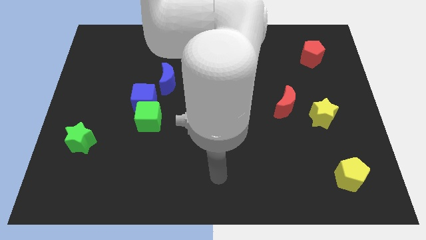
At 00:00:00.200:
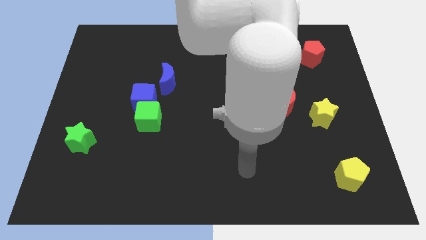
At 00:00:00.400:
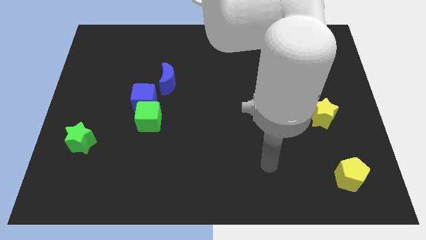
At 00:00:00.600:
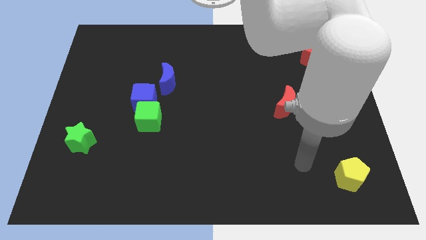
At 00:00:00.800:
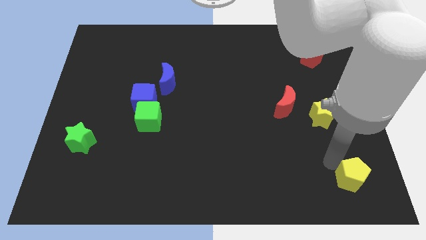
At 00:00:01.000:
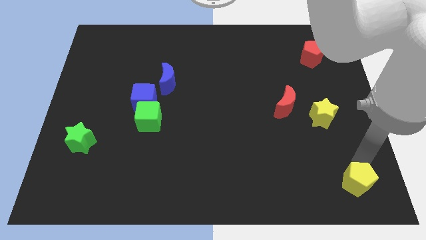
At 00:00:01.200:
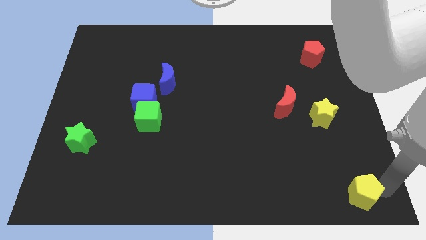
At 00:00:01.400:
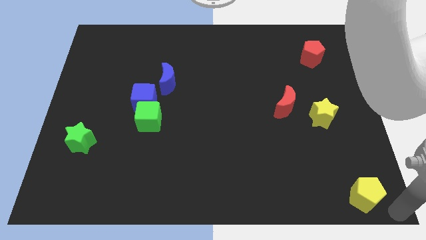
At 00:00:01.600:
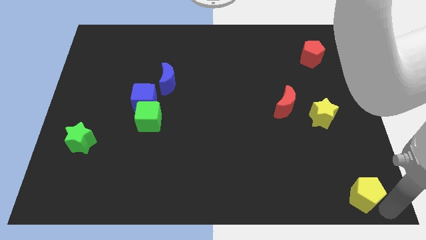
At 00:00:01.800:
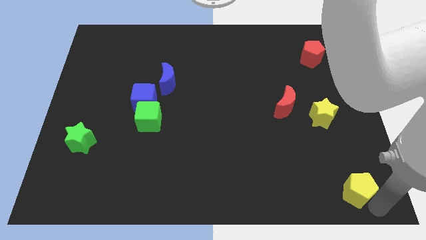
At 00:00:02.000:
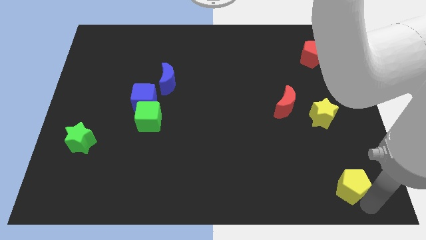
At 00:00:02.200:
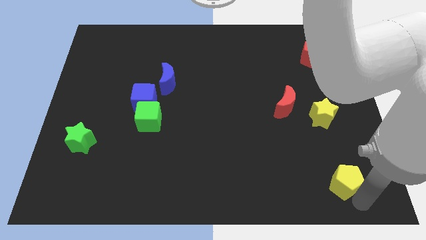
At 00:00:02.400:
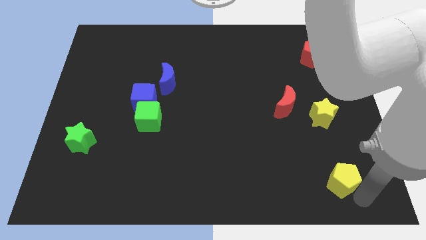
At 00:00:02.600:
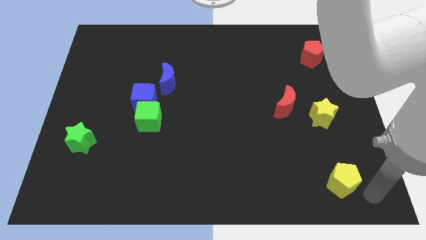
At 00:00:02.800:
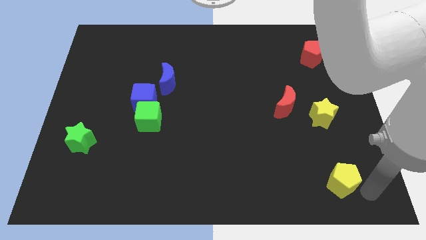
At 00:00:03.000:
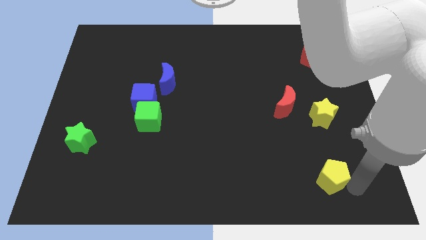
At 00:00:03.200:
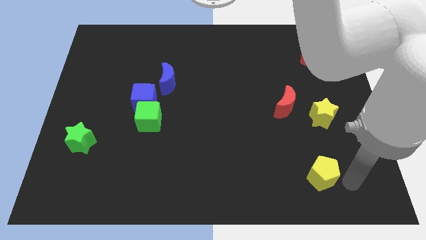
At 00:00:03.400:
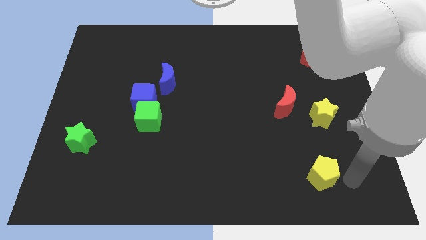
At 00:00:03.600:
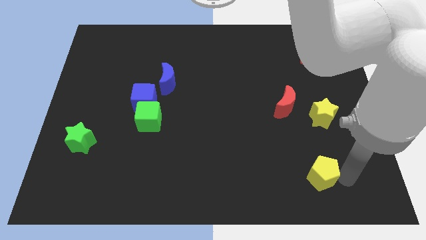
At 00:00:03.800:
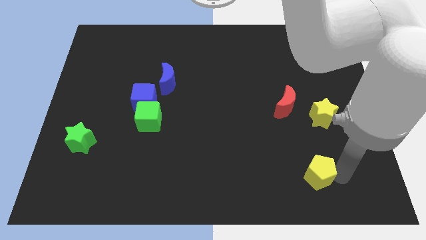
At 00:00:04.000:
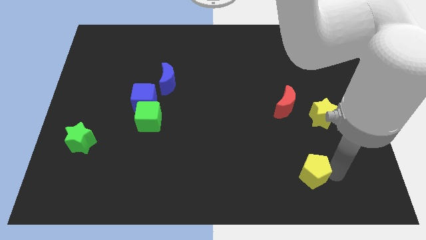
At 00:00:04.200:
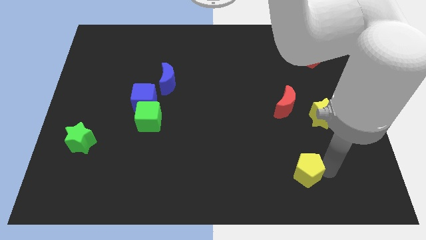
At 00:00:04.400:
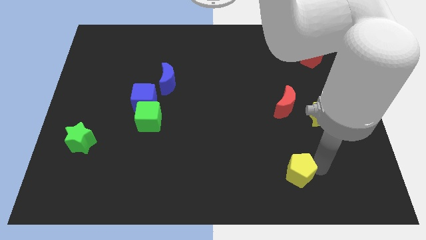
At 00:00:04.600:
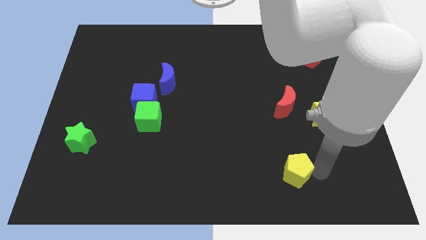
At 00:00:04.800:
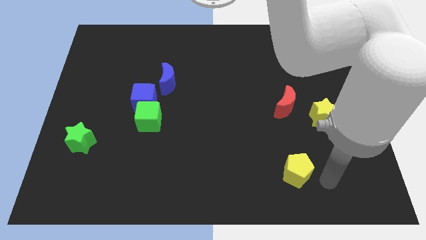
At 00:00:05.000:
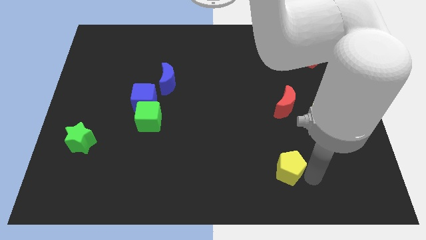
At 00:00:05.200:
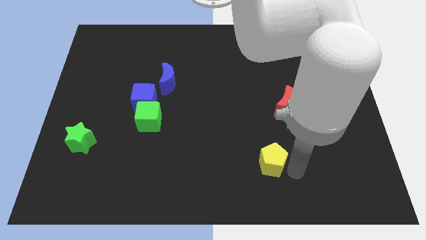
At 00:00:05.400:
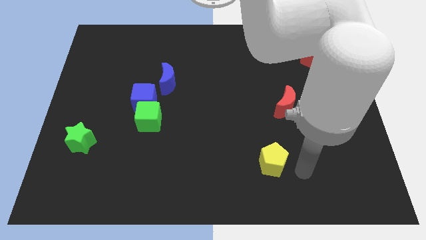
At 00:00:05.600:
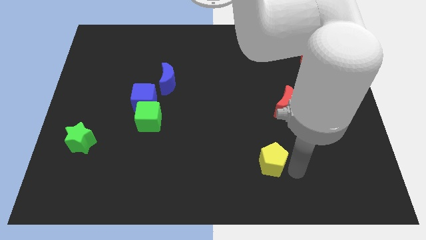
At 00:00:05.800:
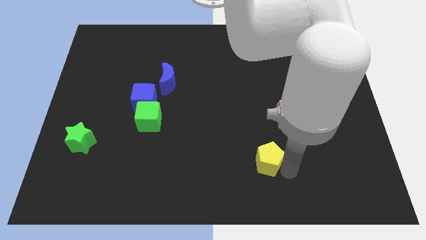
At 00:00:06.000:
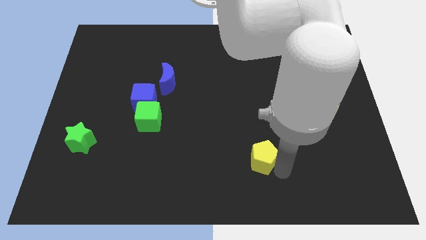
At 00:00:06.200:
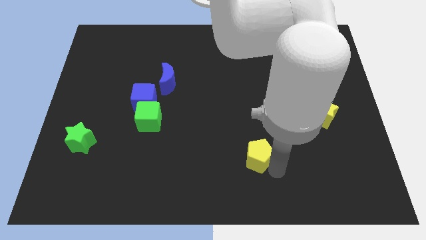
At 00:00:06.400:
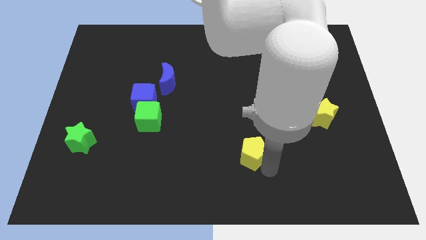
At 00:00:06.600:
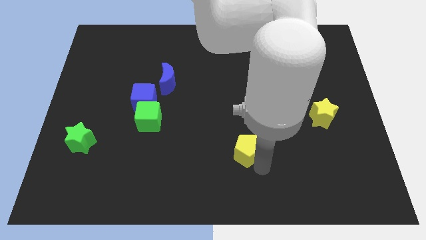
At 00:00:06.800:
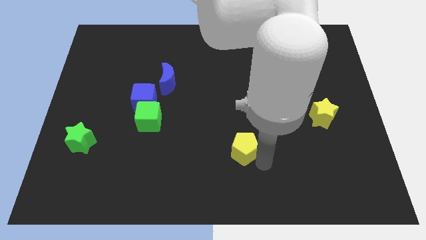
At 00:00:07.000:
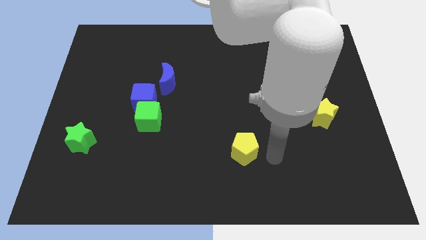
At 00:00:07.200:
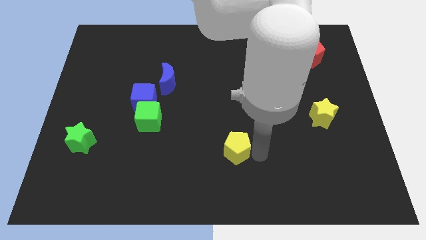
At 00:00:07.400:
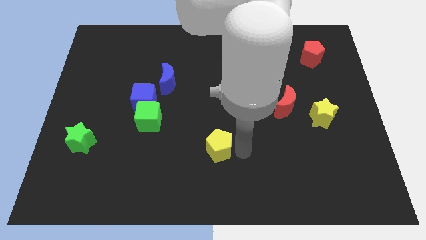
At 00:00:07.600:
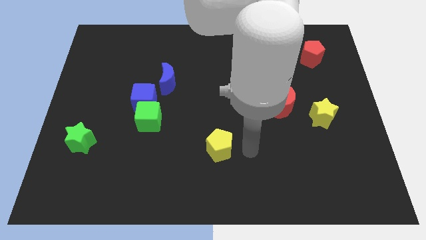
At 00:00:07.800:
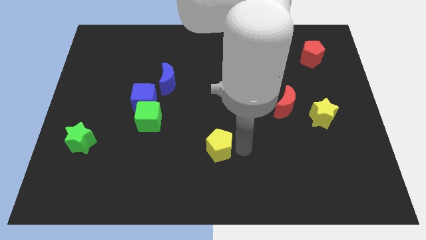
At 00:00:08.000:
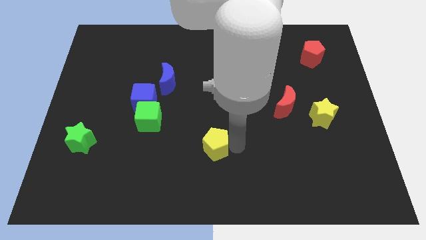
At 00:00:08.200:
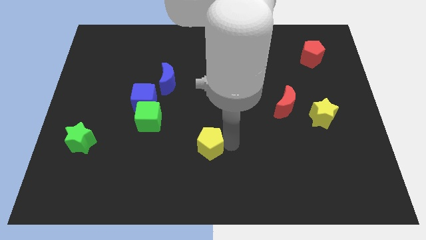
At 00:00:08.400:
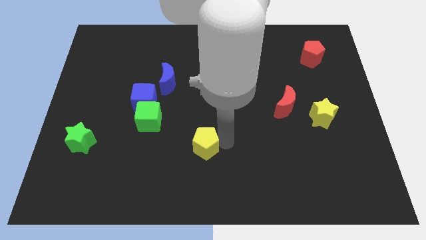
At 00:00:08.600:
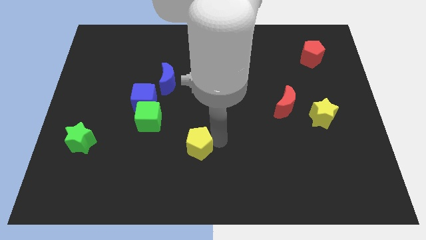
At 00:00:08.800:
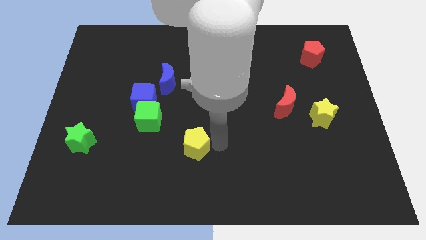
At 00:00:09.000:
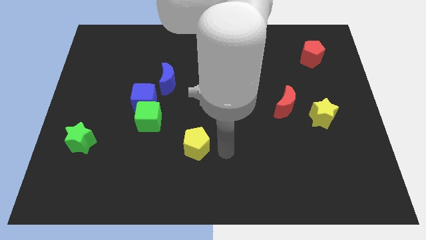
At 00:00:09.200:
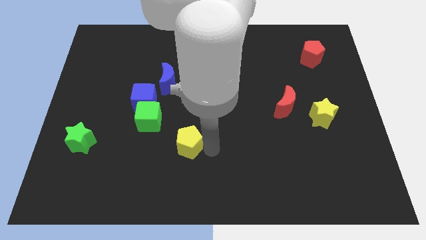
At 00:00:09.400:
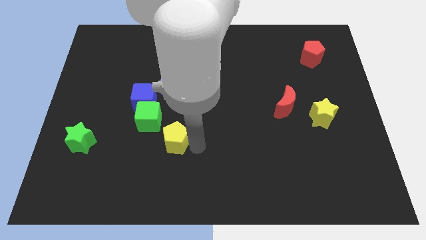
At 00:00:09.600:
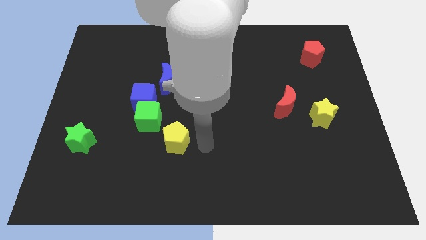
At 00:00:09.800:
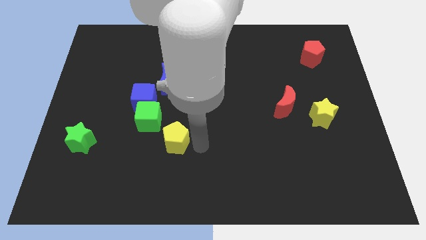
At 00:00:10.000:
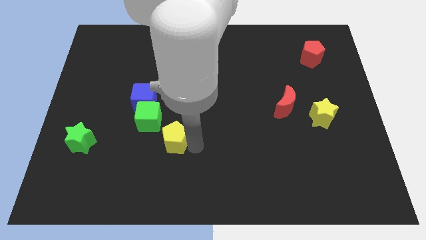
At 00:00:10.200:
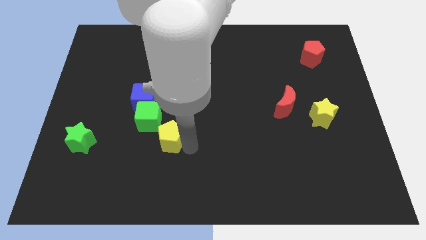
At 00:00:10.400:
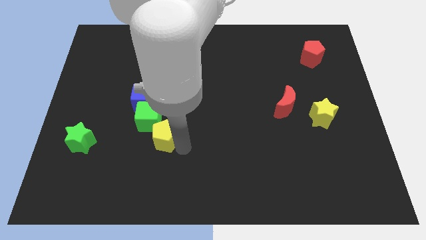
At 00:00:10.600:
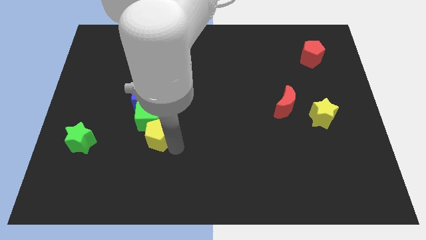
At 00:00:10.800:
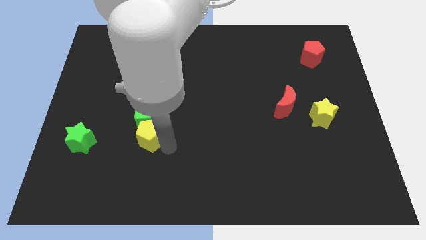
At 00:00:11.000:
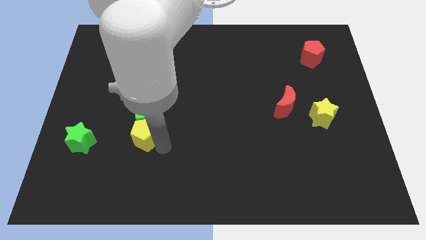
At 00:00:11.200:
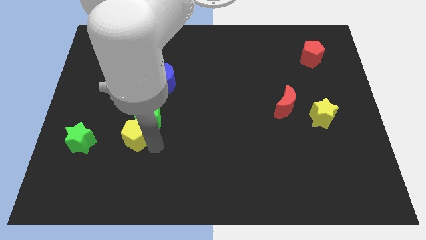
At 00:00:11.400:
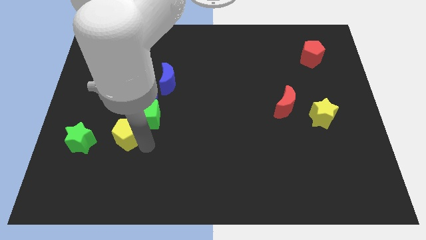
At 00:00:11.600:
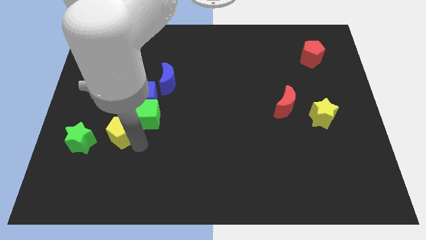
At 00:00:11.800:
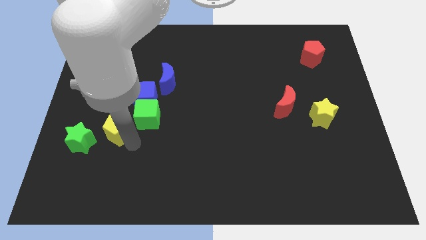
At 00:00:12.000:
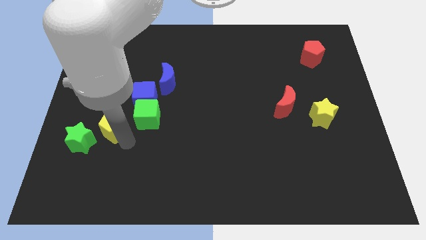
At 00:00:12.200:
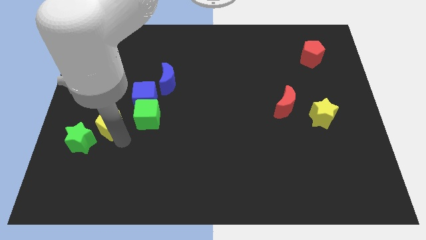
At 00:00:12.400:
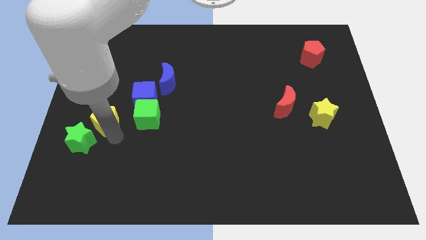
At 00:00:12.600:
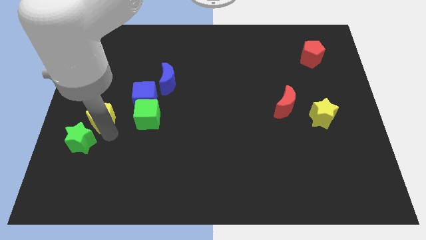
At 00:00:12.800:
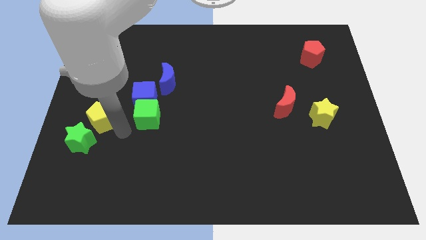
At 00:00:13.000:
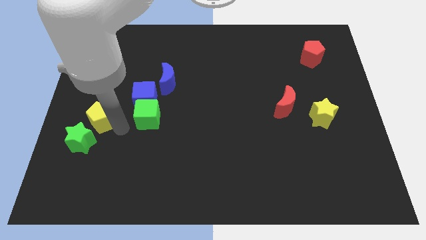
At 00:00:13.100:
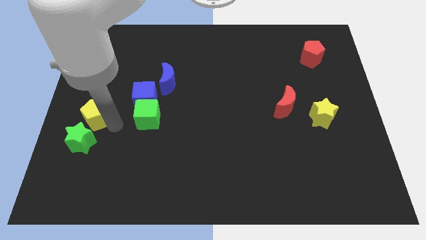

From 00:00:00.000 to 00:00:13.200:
push the yellow pentagon to the center left
